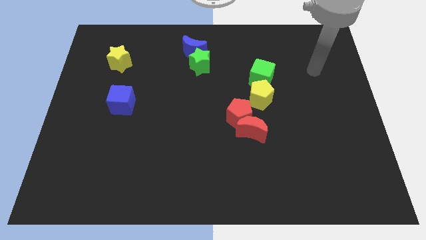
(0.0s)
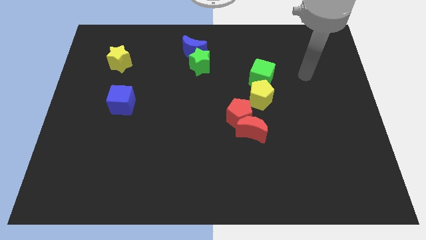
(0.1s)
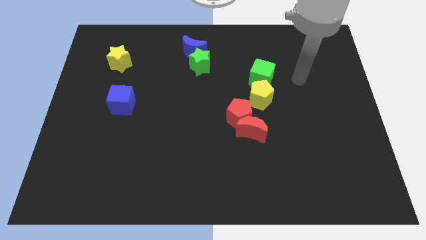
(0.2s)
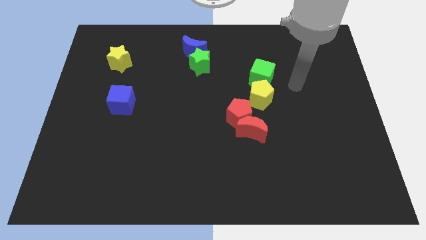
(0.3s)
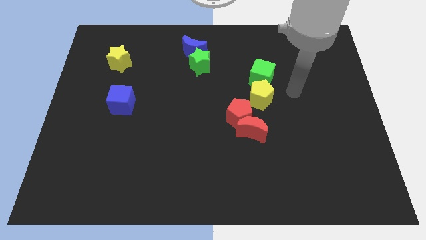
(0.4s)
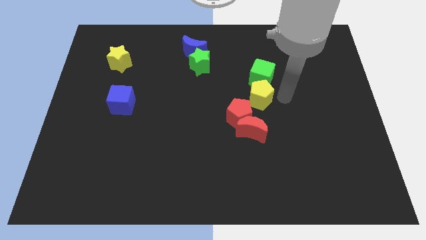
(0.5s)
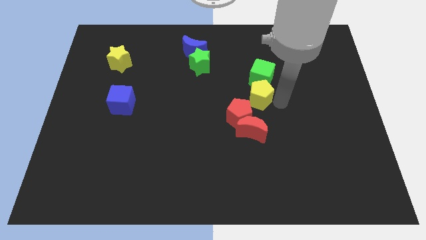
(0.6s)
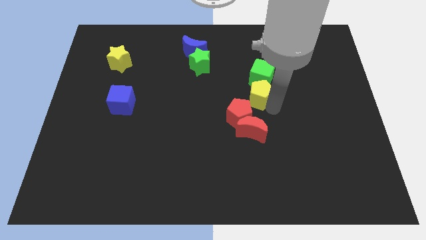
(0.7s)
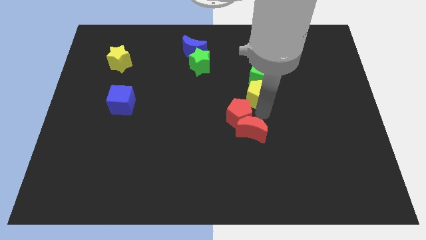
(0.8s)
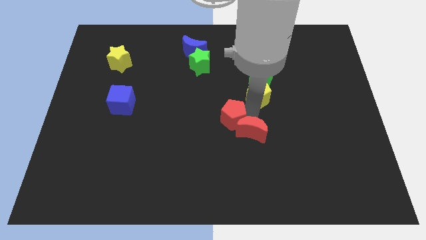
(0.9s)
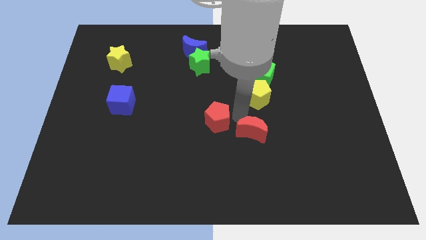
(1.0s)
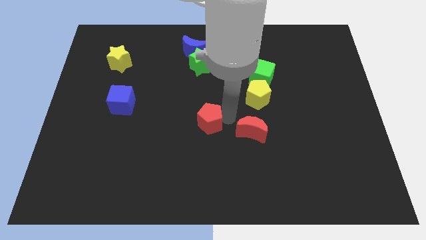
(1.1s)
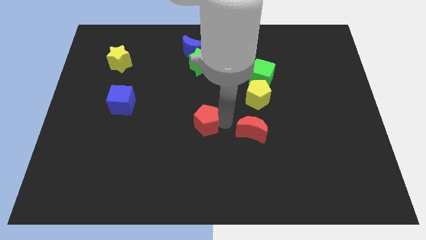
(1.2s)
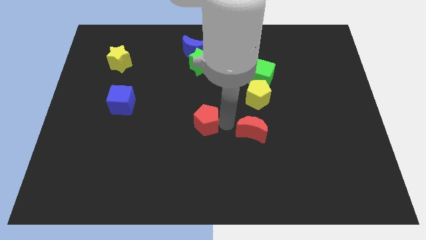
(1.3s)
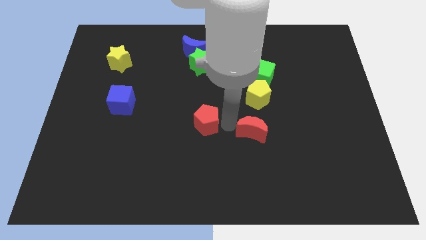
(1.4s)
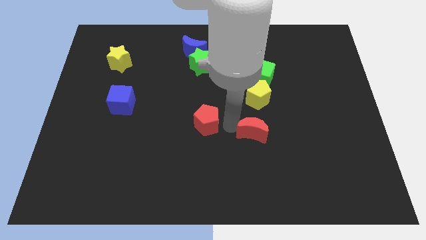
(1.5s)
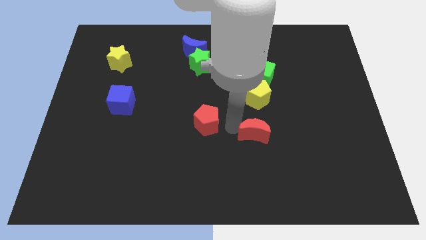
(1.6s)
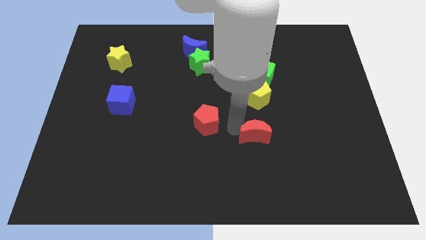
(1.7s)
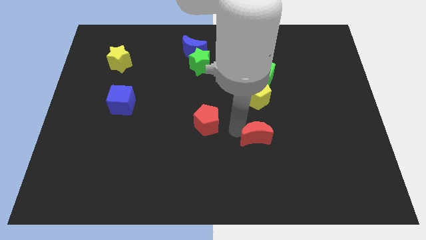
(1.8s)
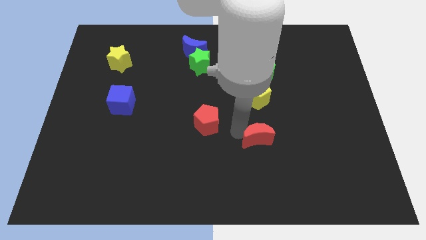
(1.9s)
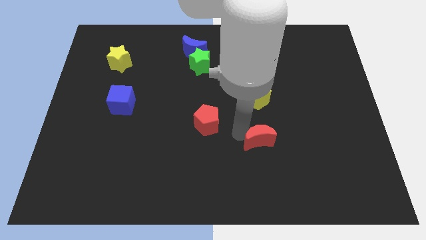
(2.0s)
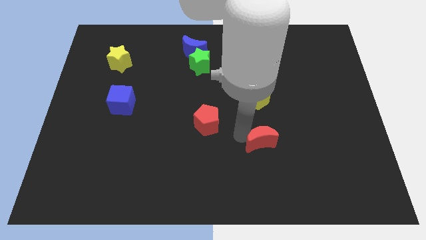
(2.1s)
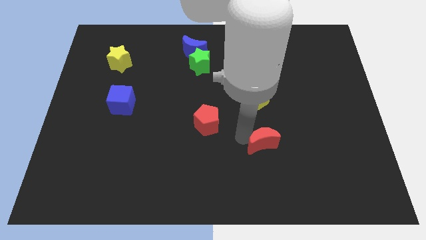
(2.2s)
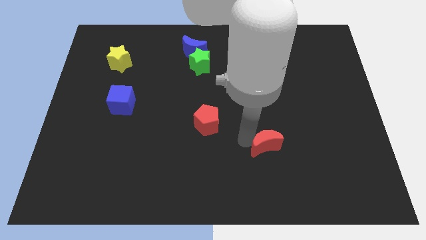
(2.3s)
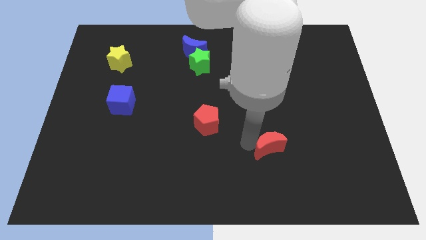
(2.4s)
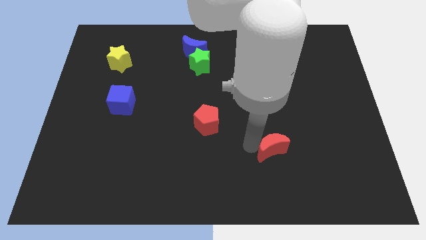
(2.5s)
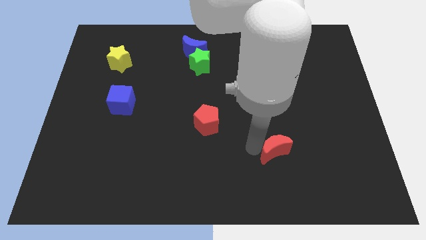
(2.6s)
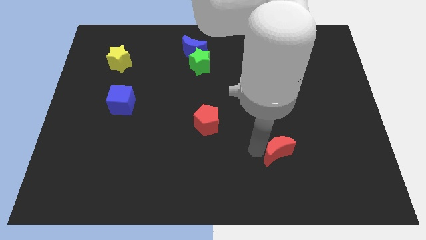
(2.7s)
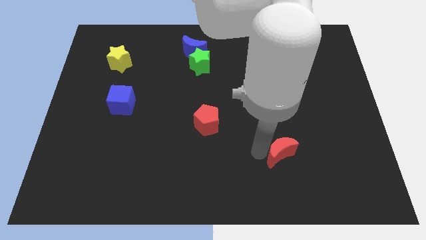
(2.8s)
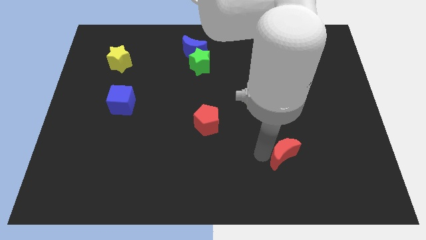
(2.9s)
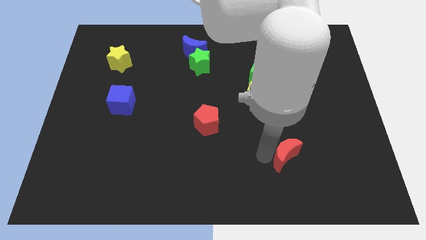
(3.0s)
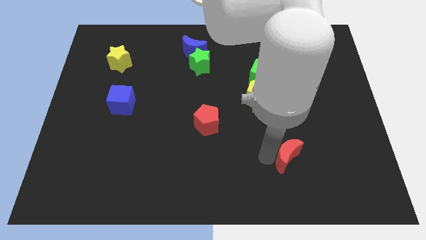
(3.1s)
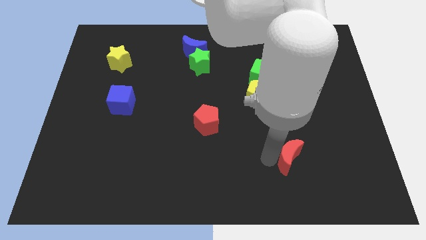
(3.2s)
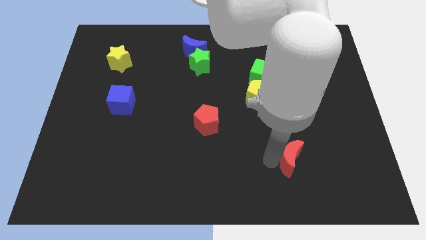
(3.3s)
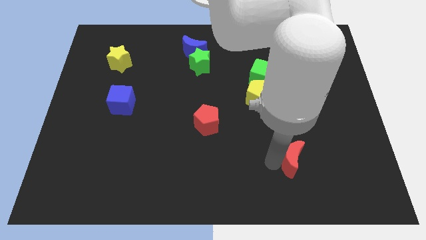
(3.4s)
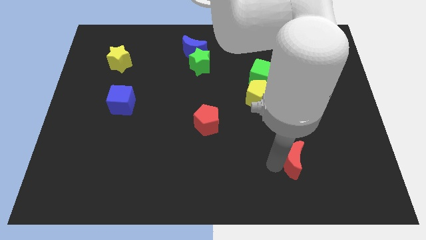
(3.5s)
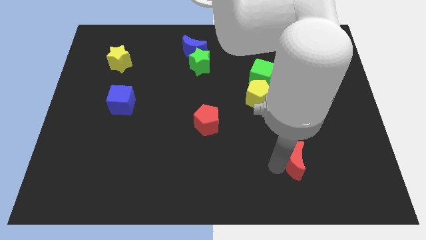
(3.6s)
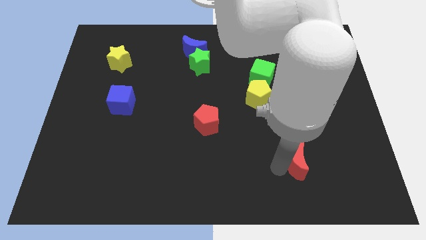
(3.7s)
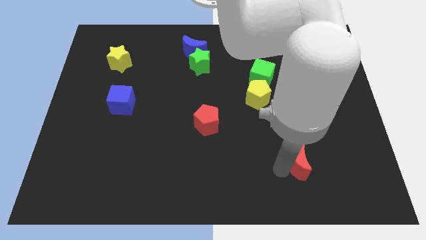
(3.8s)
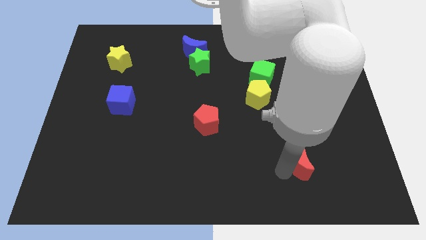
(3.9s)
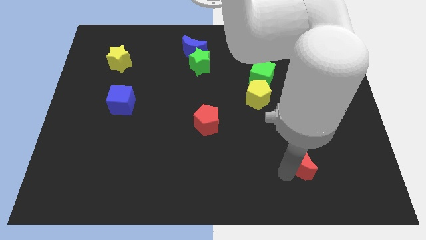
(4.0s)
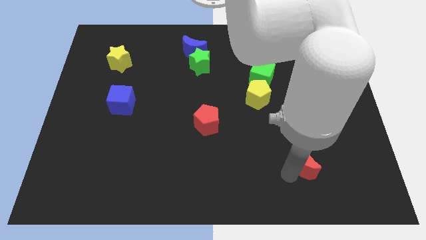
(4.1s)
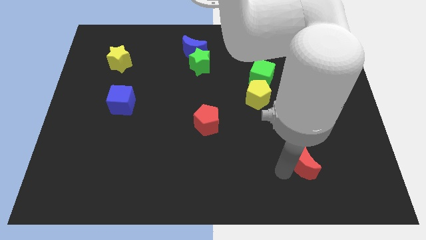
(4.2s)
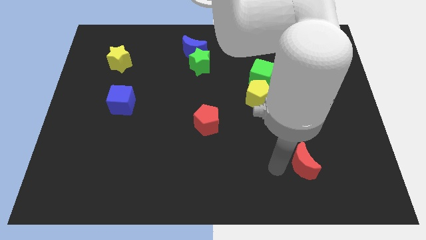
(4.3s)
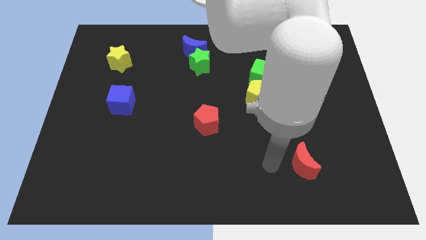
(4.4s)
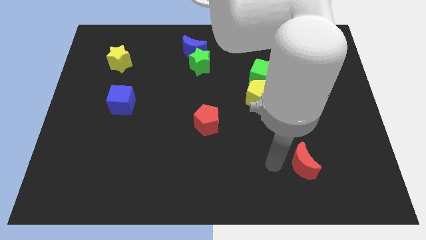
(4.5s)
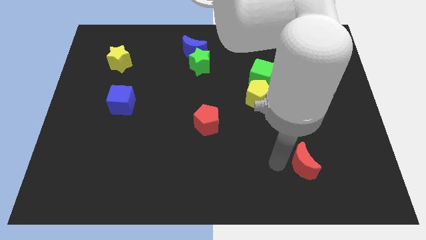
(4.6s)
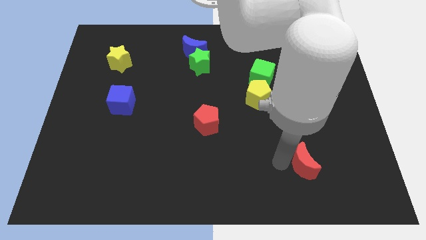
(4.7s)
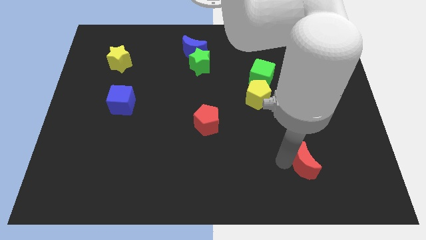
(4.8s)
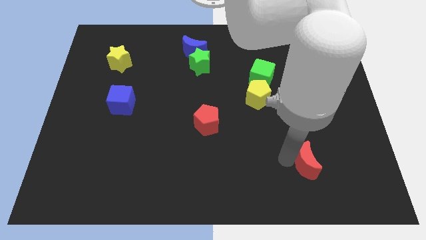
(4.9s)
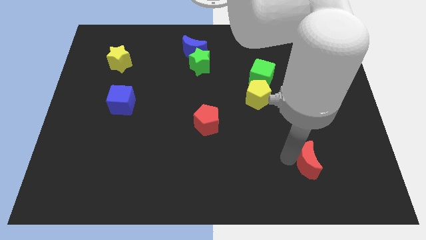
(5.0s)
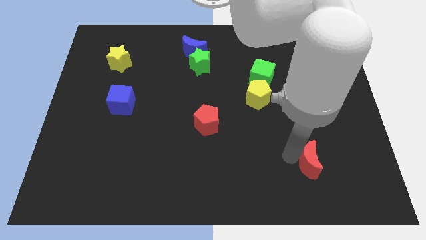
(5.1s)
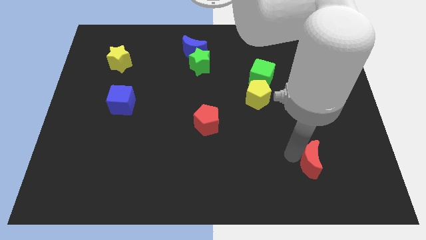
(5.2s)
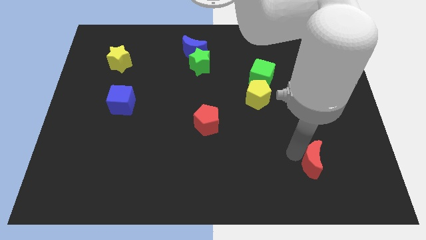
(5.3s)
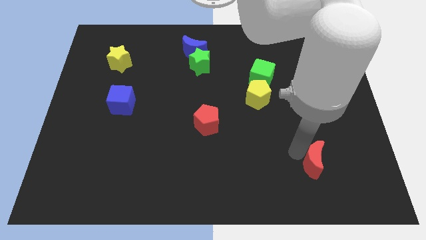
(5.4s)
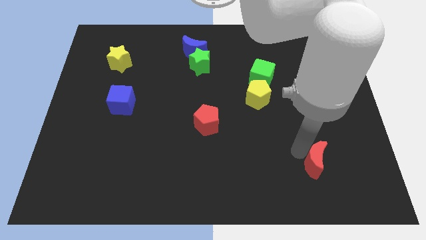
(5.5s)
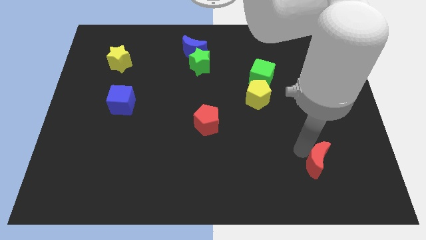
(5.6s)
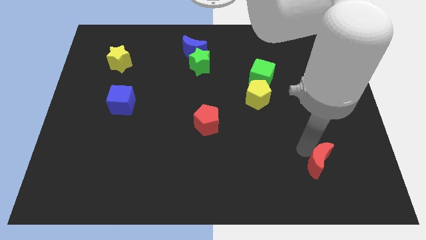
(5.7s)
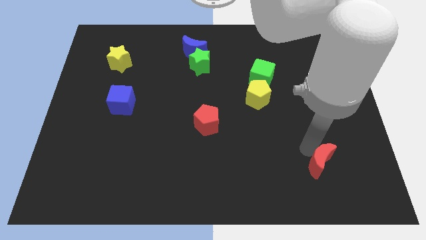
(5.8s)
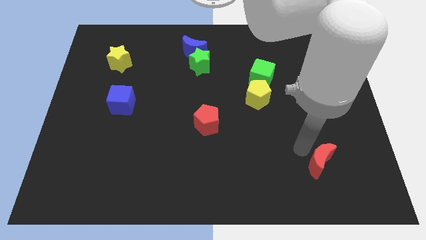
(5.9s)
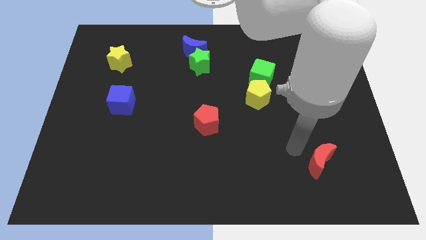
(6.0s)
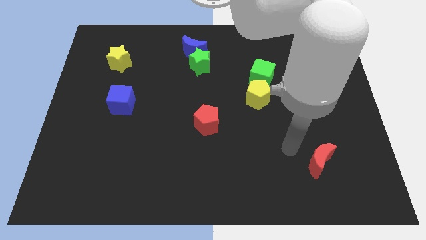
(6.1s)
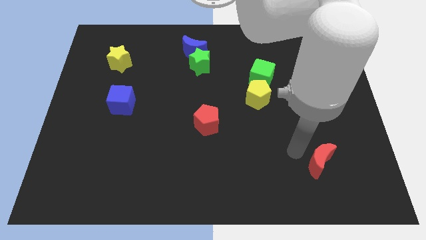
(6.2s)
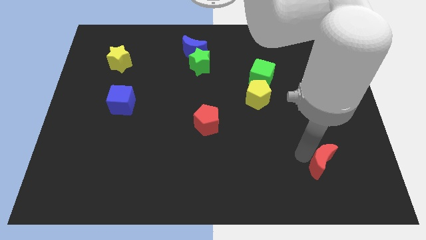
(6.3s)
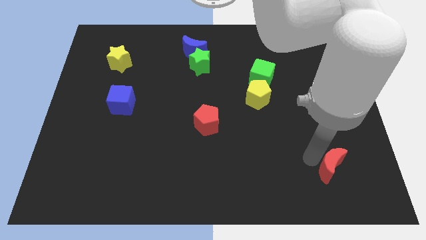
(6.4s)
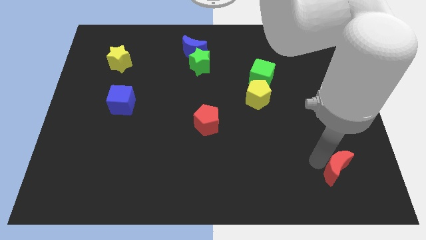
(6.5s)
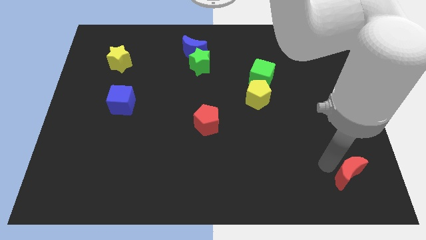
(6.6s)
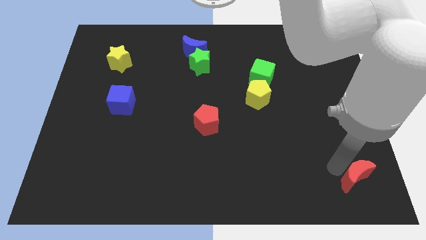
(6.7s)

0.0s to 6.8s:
push the red moon to the bottom right corner
